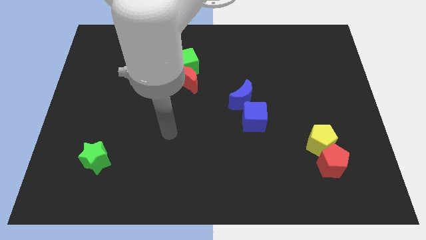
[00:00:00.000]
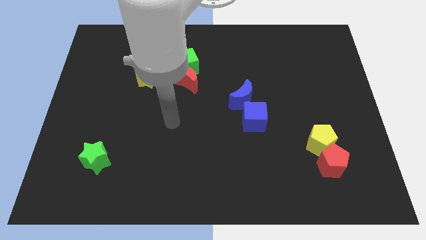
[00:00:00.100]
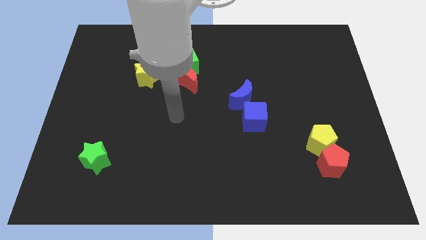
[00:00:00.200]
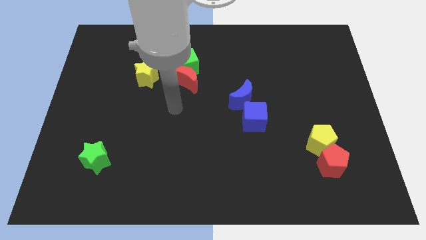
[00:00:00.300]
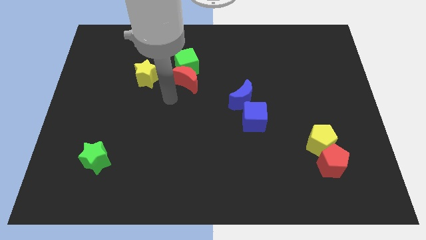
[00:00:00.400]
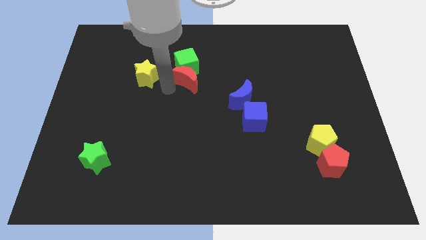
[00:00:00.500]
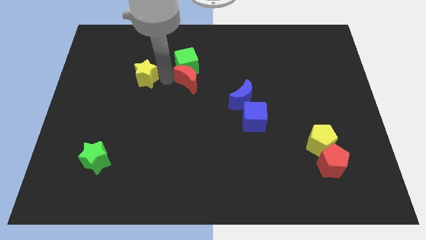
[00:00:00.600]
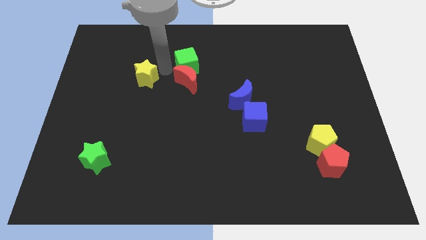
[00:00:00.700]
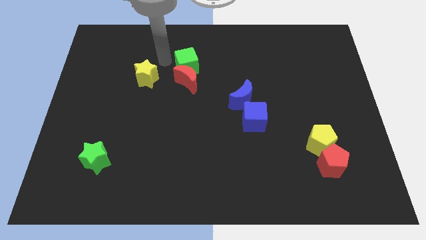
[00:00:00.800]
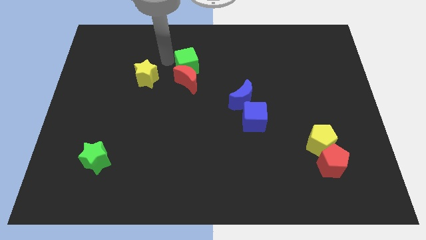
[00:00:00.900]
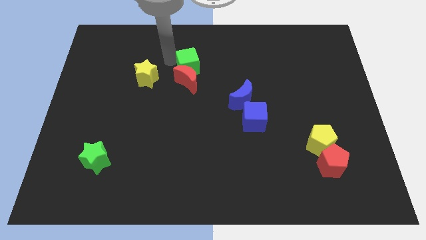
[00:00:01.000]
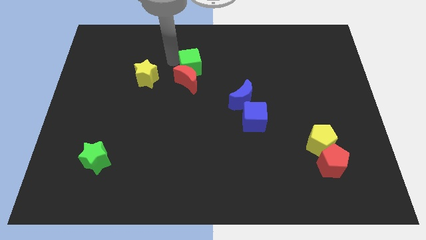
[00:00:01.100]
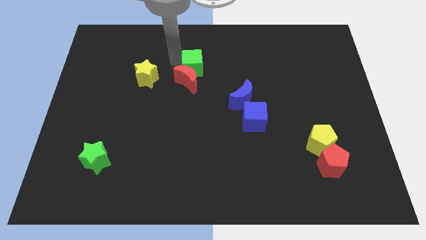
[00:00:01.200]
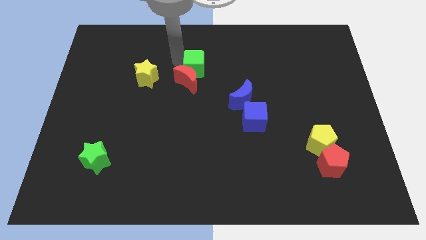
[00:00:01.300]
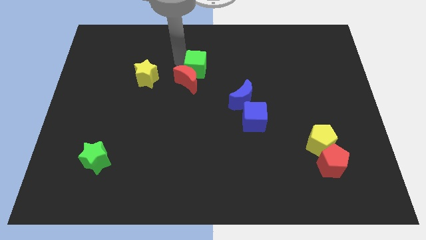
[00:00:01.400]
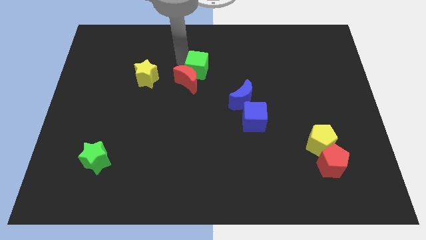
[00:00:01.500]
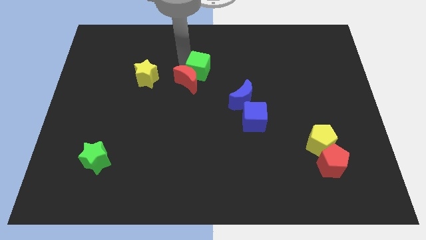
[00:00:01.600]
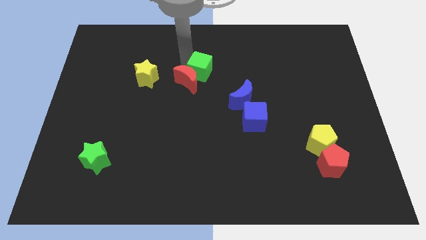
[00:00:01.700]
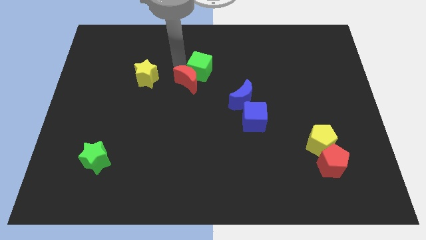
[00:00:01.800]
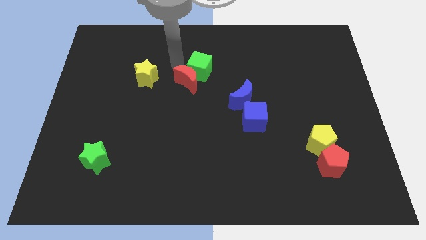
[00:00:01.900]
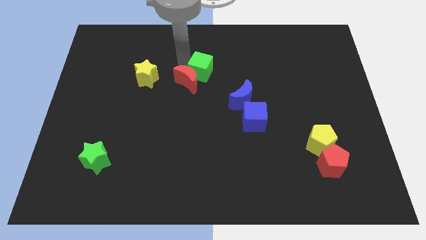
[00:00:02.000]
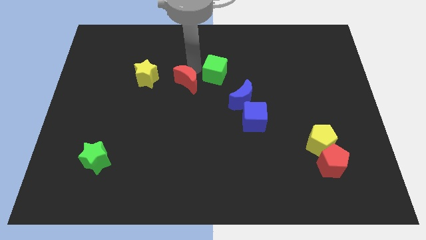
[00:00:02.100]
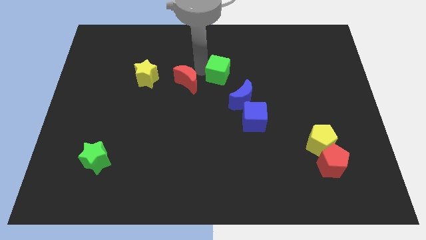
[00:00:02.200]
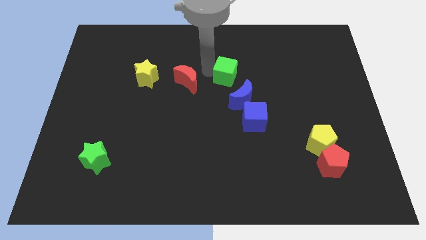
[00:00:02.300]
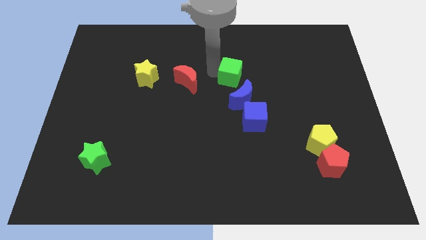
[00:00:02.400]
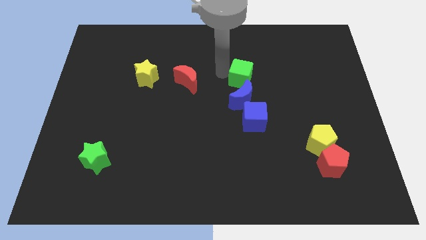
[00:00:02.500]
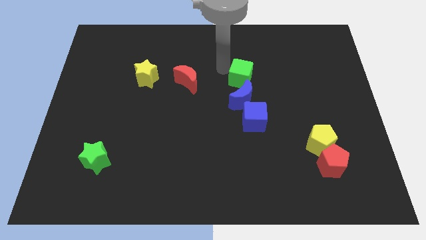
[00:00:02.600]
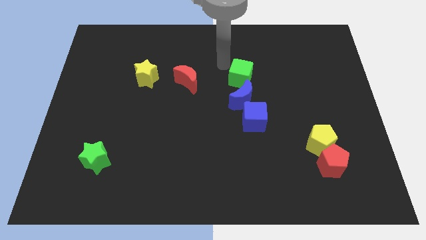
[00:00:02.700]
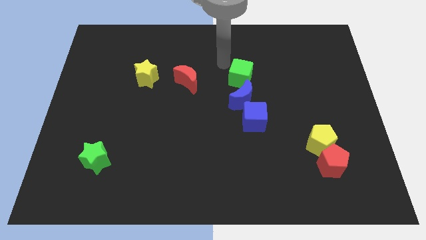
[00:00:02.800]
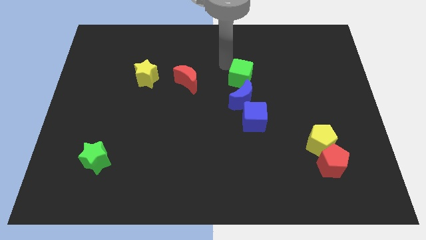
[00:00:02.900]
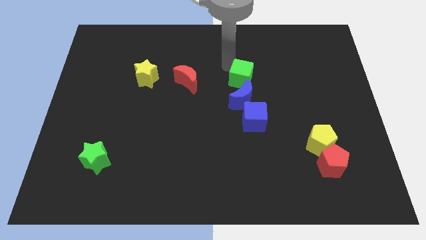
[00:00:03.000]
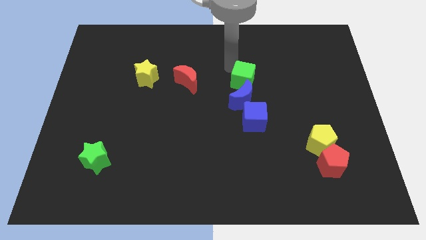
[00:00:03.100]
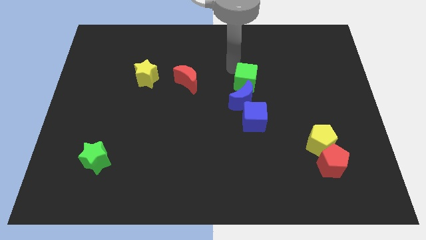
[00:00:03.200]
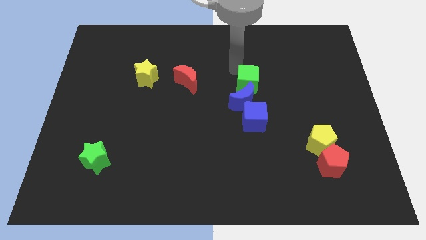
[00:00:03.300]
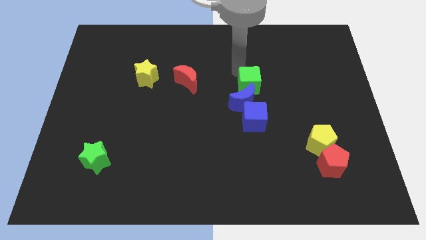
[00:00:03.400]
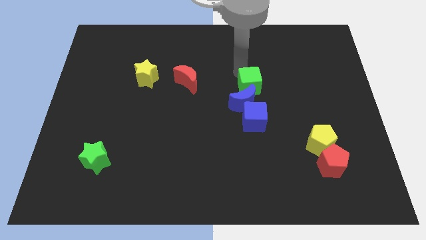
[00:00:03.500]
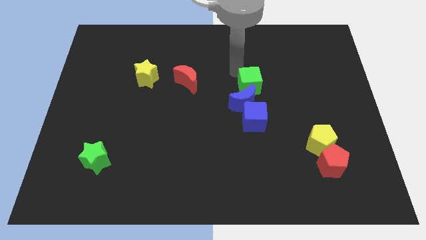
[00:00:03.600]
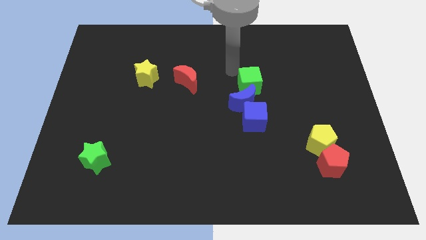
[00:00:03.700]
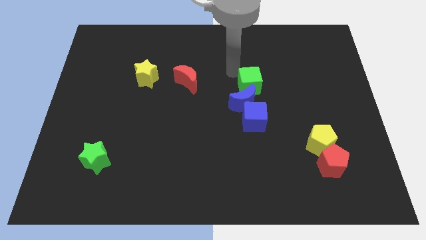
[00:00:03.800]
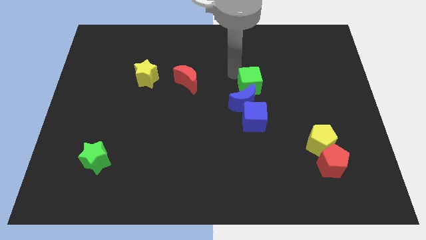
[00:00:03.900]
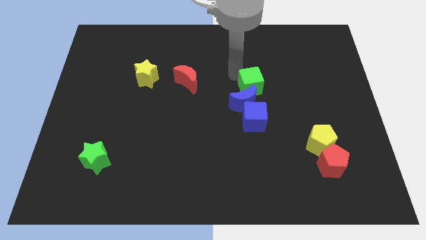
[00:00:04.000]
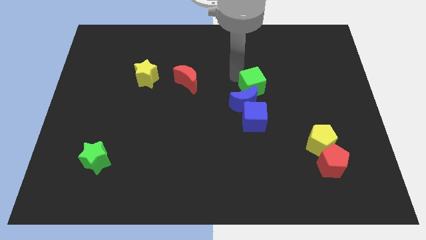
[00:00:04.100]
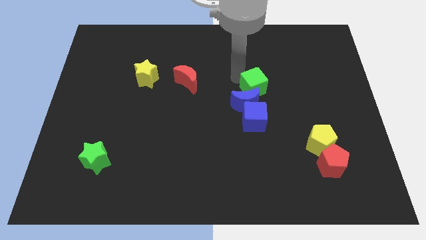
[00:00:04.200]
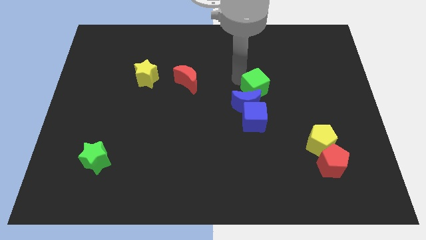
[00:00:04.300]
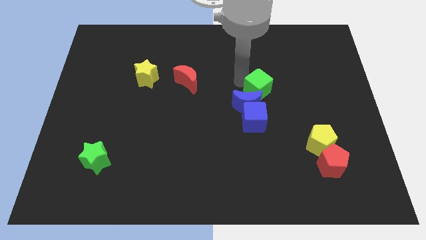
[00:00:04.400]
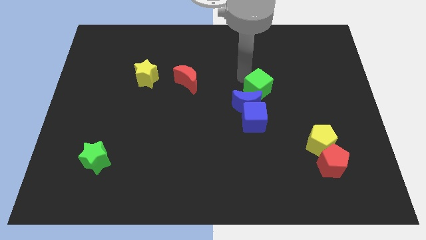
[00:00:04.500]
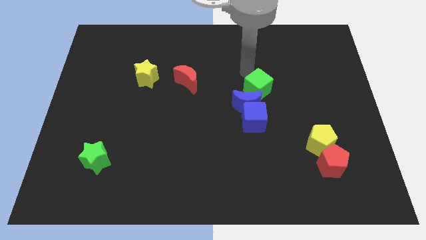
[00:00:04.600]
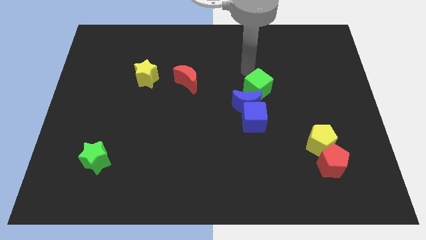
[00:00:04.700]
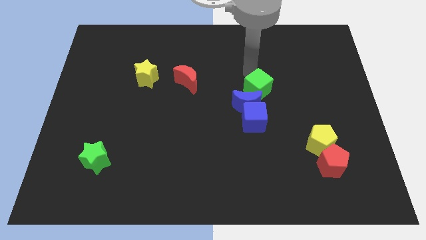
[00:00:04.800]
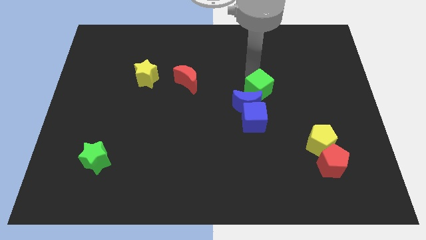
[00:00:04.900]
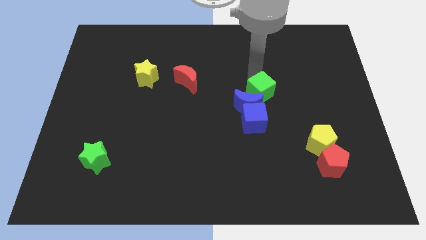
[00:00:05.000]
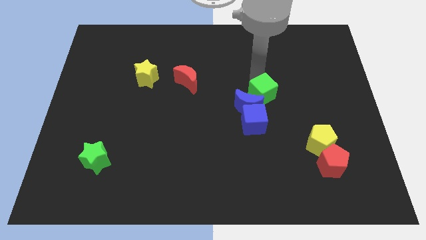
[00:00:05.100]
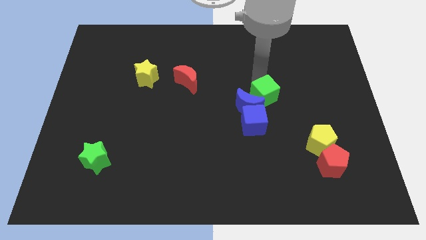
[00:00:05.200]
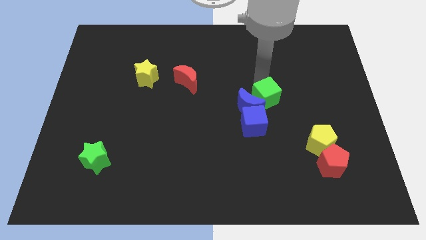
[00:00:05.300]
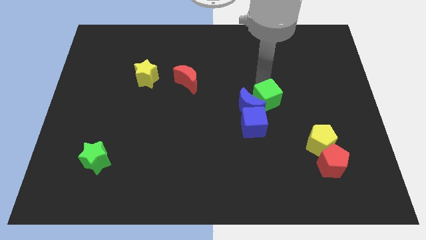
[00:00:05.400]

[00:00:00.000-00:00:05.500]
slide the green cube downwards and to the right diagonally

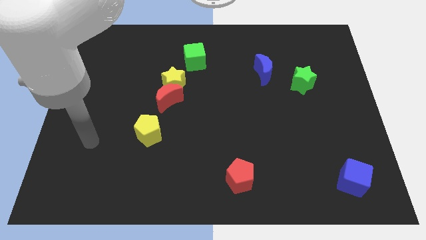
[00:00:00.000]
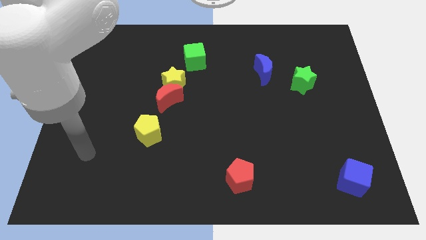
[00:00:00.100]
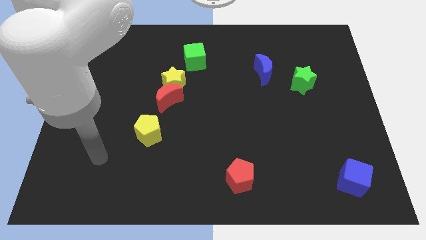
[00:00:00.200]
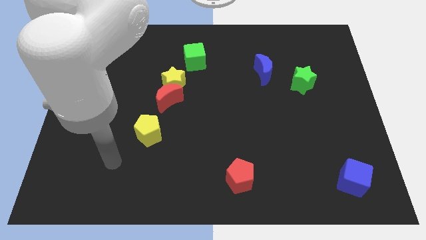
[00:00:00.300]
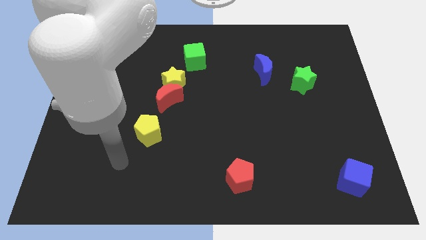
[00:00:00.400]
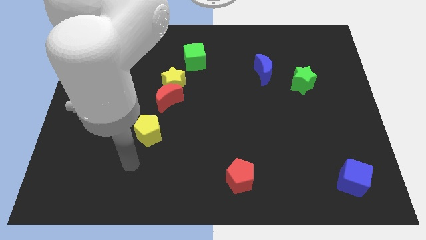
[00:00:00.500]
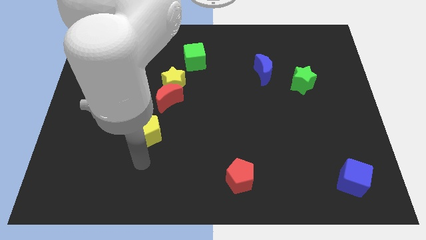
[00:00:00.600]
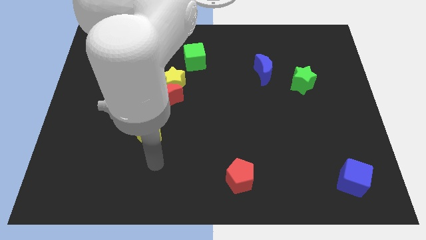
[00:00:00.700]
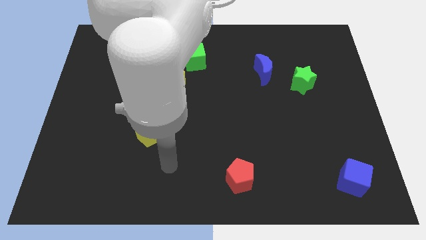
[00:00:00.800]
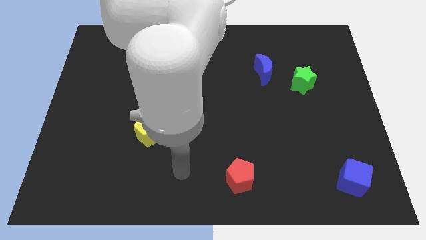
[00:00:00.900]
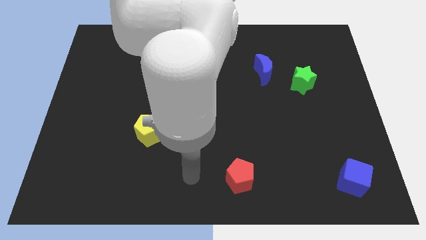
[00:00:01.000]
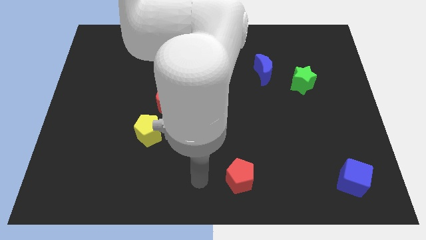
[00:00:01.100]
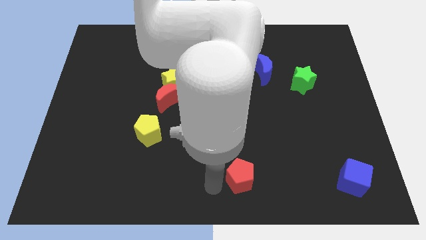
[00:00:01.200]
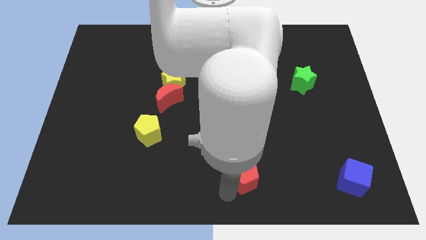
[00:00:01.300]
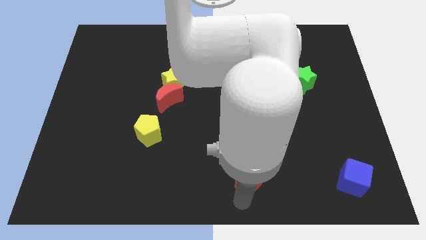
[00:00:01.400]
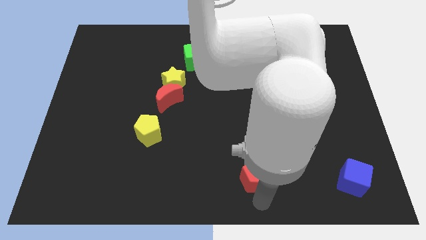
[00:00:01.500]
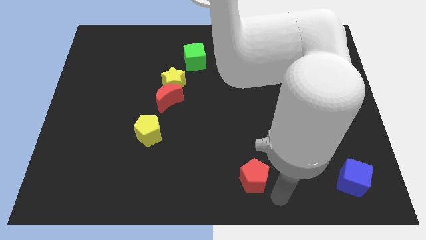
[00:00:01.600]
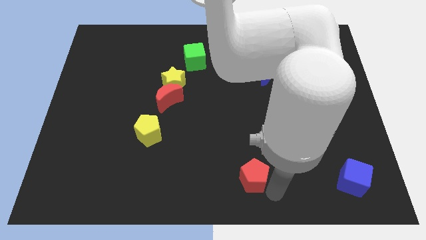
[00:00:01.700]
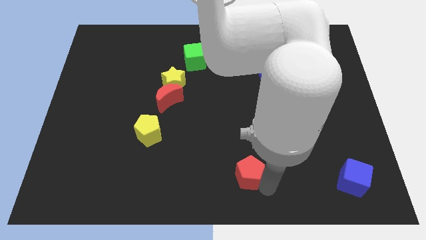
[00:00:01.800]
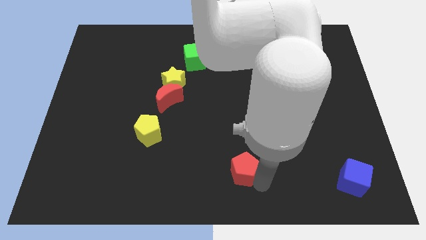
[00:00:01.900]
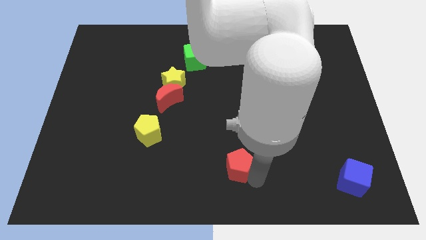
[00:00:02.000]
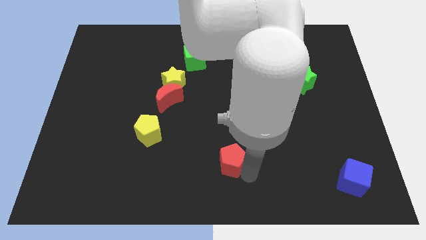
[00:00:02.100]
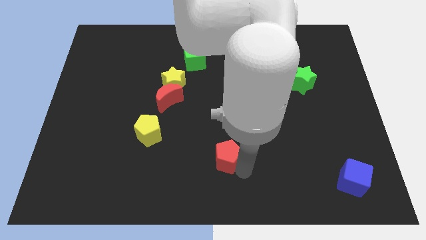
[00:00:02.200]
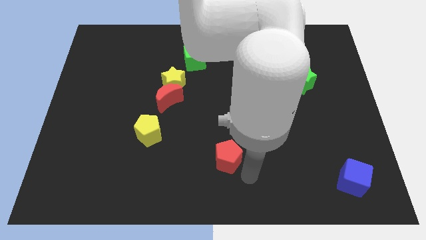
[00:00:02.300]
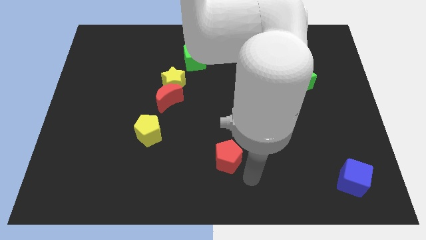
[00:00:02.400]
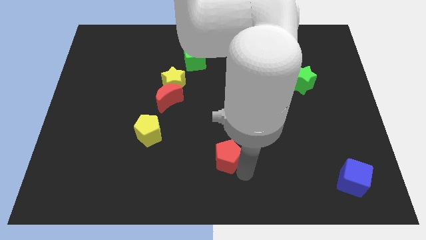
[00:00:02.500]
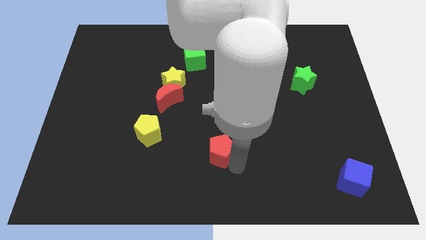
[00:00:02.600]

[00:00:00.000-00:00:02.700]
push the red pentagon up and to the left diagonally a little bit
